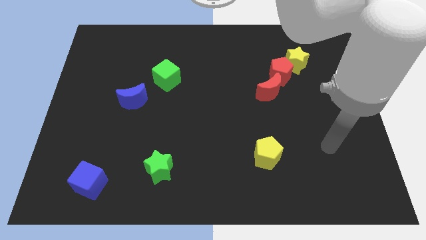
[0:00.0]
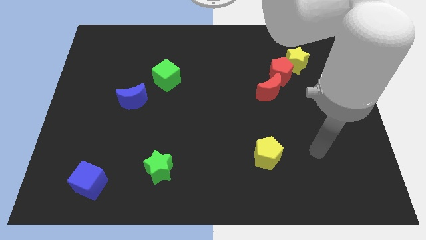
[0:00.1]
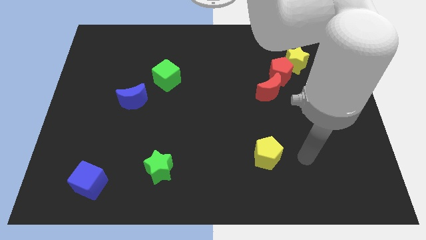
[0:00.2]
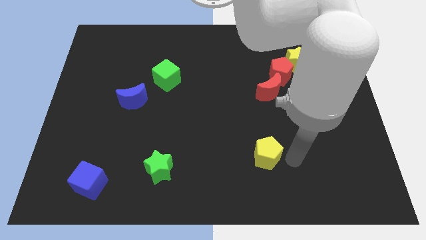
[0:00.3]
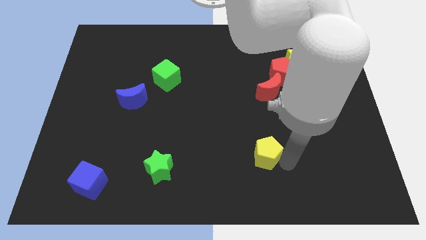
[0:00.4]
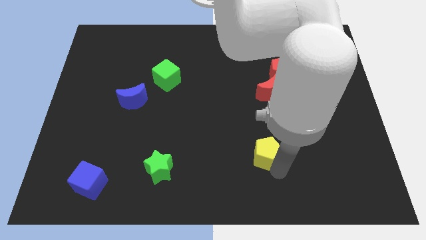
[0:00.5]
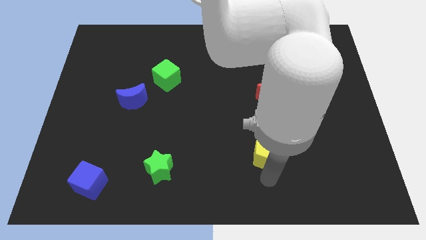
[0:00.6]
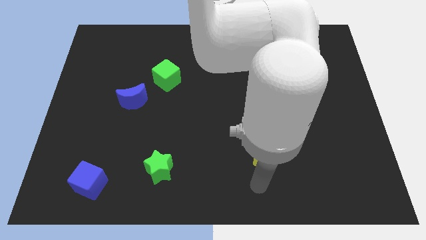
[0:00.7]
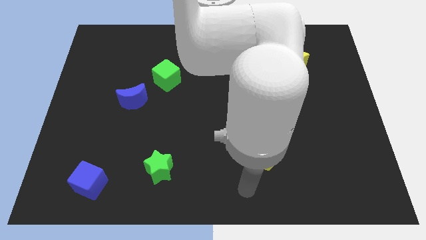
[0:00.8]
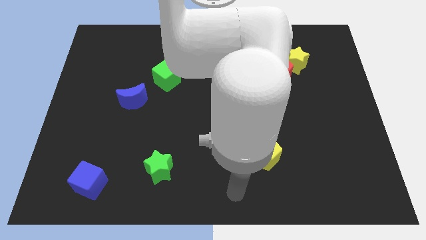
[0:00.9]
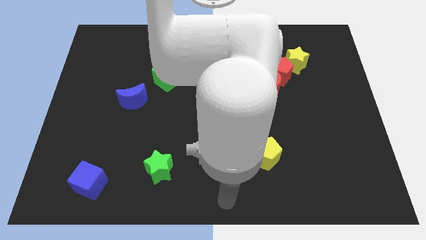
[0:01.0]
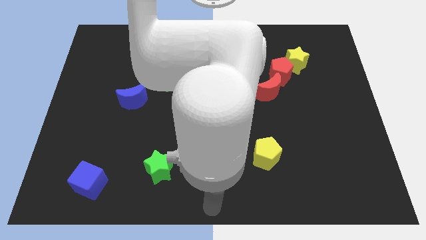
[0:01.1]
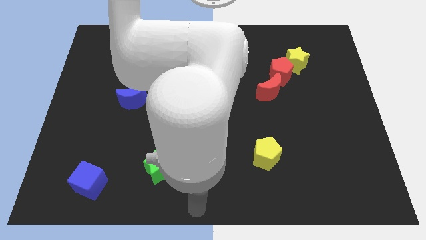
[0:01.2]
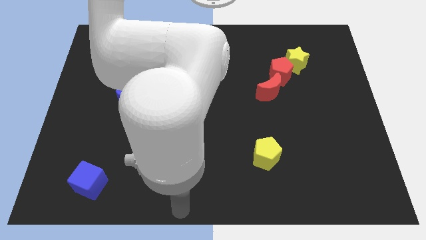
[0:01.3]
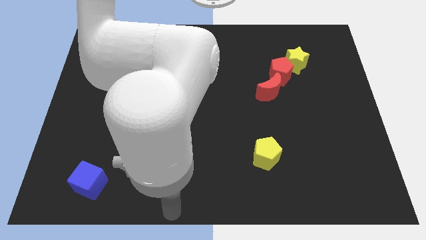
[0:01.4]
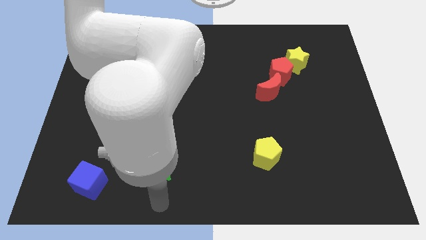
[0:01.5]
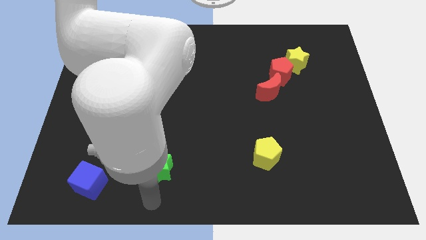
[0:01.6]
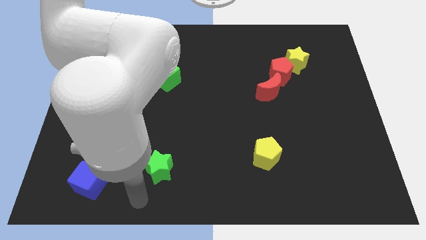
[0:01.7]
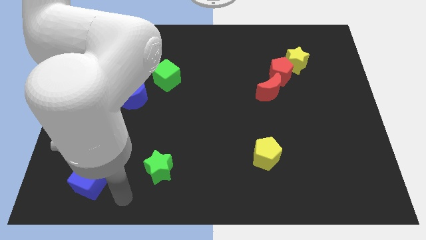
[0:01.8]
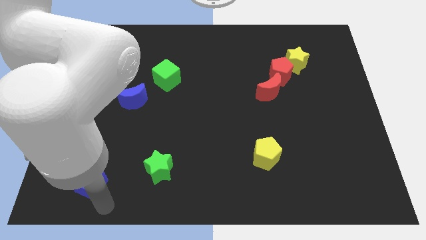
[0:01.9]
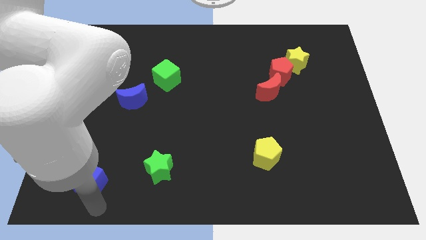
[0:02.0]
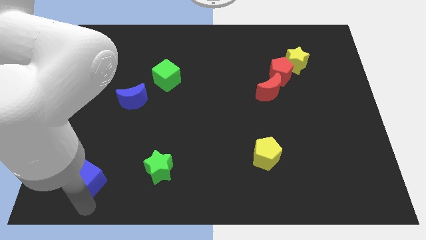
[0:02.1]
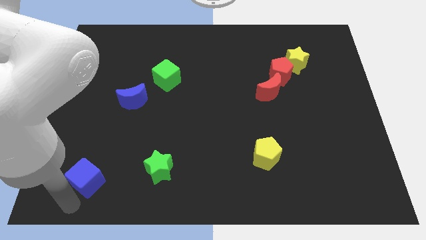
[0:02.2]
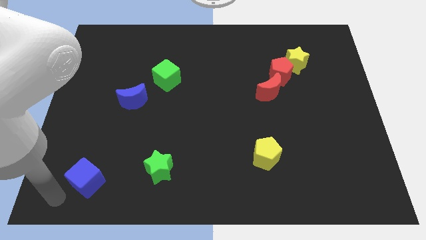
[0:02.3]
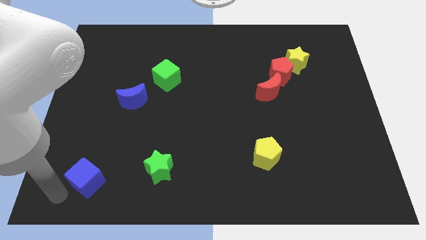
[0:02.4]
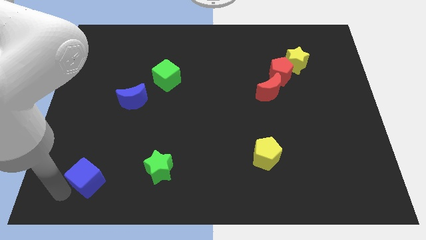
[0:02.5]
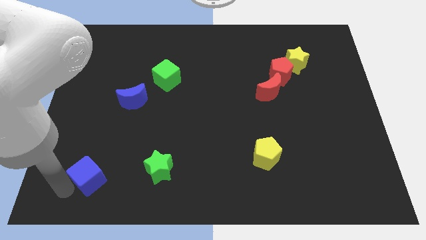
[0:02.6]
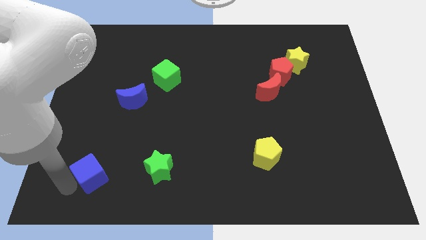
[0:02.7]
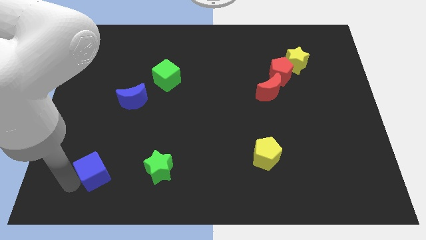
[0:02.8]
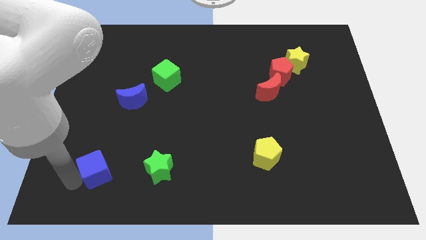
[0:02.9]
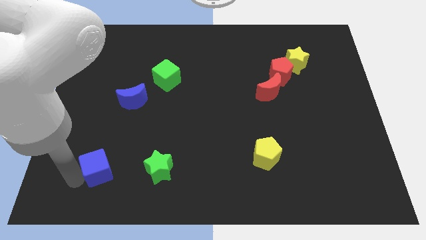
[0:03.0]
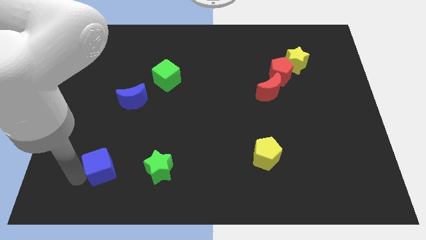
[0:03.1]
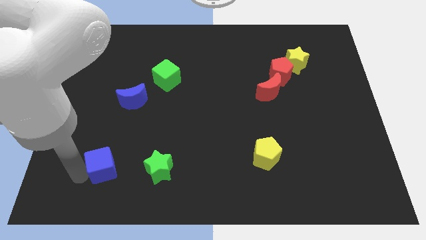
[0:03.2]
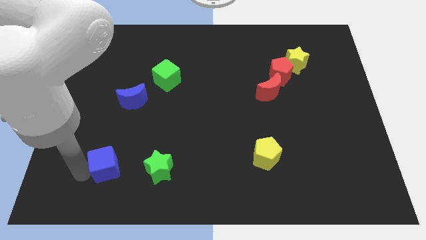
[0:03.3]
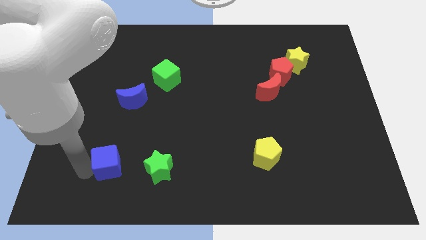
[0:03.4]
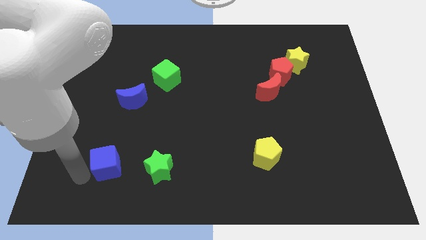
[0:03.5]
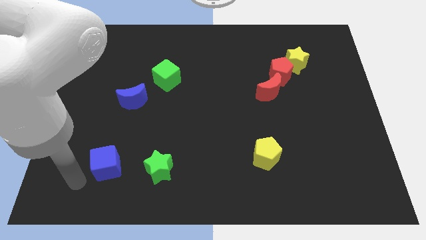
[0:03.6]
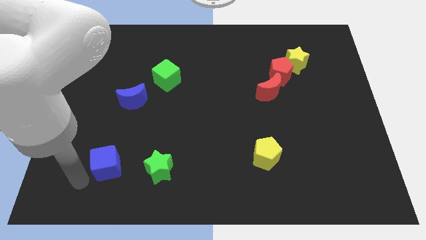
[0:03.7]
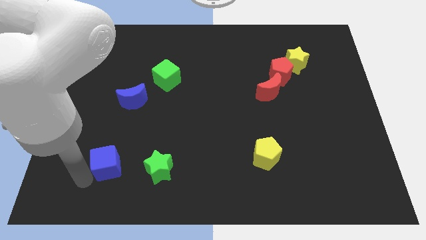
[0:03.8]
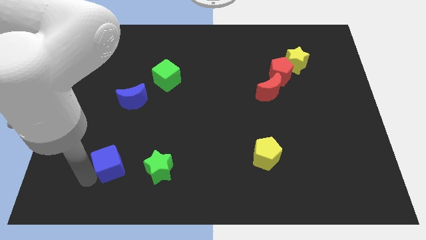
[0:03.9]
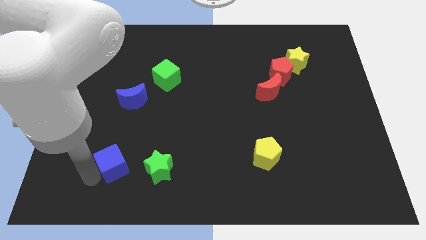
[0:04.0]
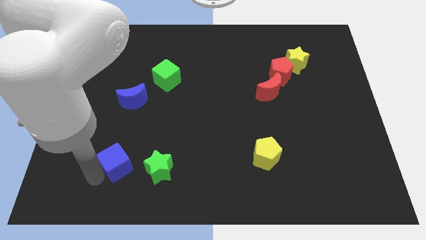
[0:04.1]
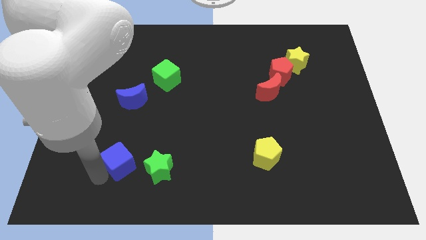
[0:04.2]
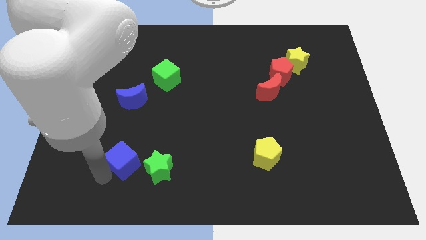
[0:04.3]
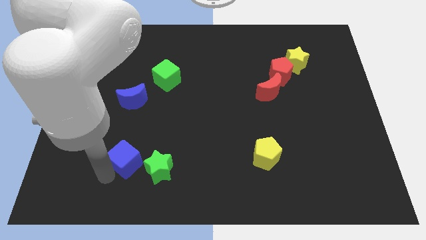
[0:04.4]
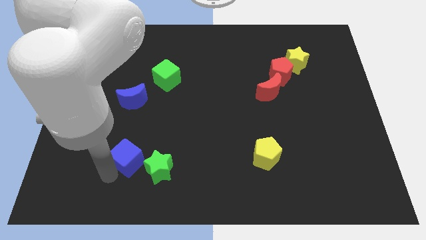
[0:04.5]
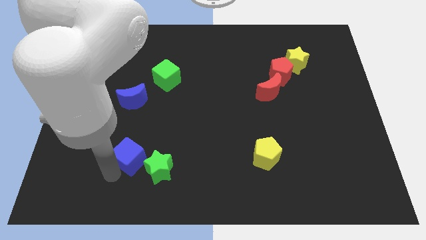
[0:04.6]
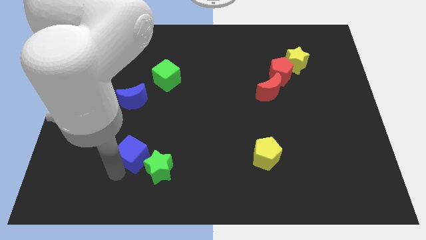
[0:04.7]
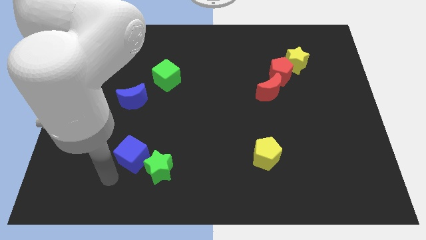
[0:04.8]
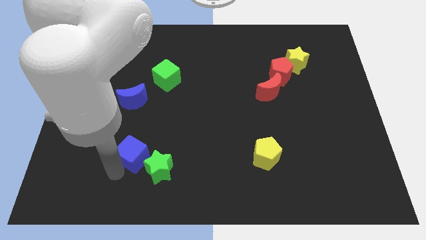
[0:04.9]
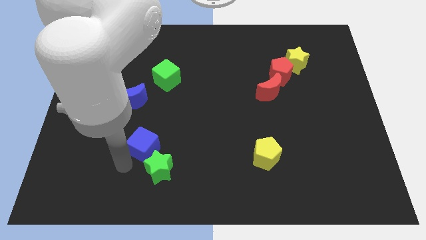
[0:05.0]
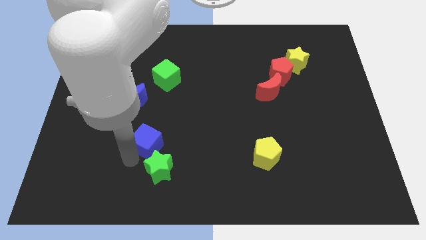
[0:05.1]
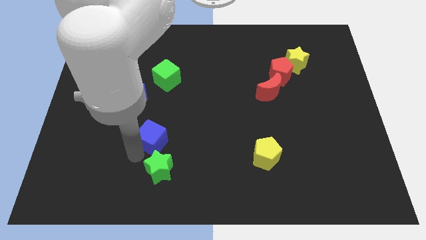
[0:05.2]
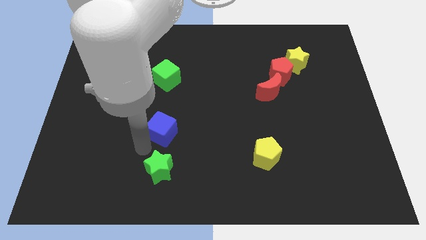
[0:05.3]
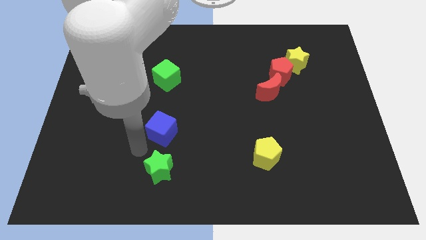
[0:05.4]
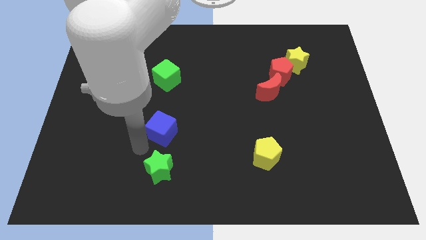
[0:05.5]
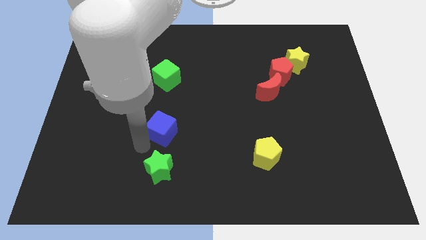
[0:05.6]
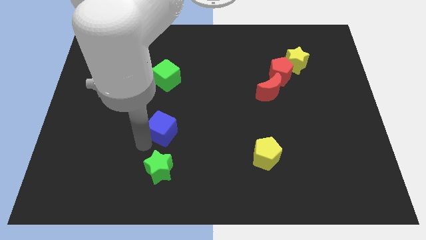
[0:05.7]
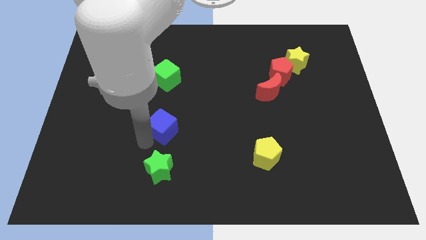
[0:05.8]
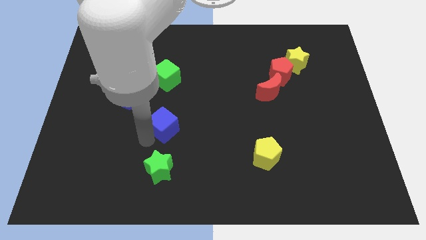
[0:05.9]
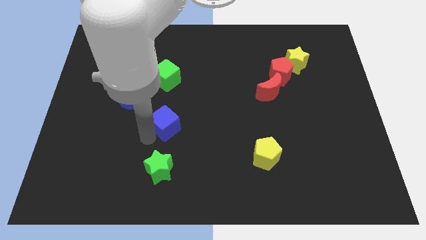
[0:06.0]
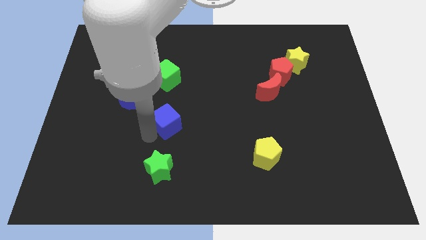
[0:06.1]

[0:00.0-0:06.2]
slide the blue cube to the center of the board

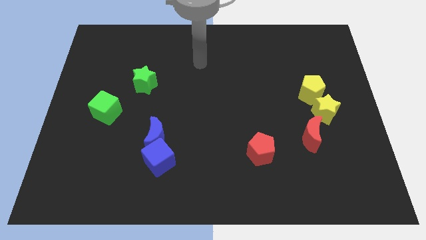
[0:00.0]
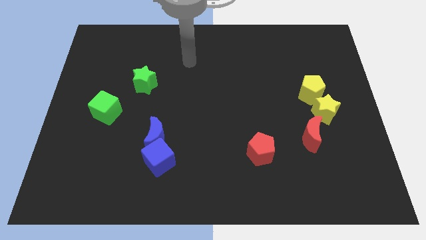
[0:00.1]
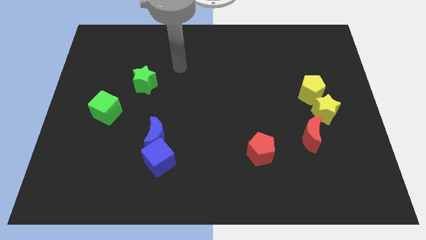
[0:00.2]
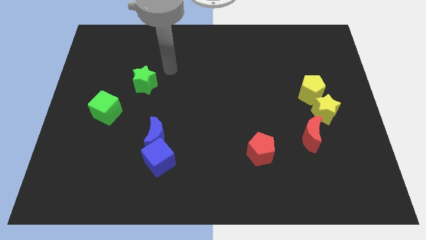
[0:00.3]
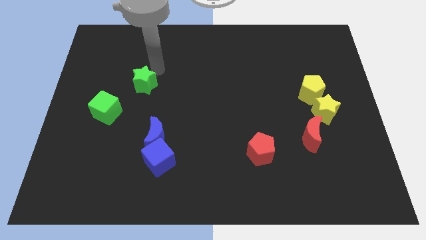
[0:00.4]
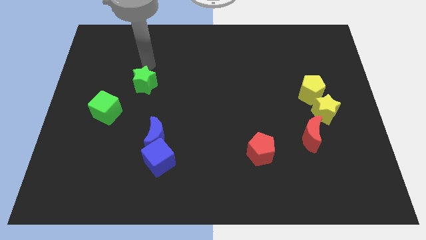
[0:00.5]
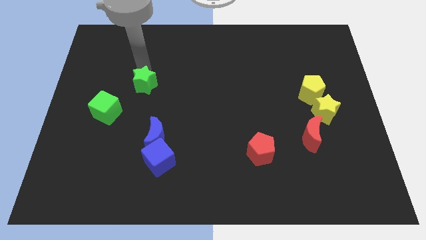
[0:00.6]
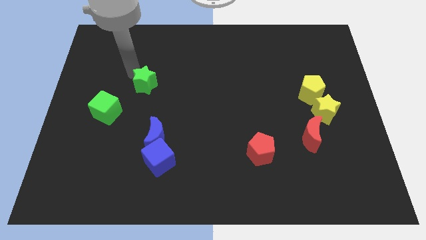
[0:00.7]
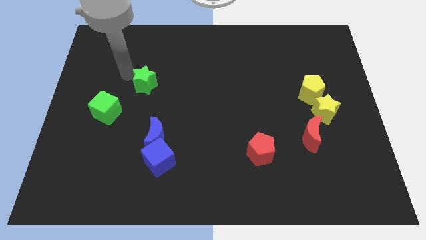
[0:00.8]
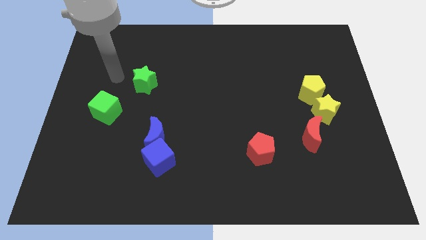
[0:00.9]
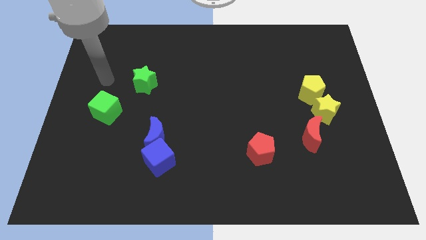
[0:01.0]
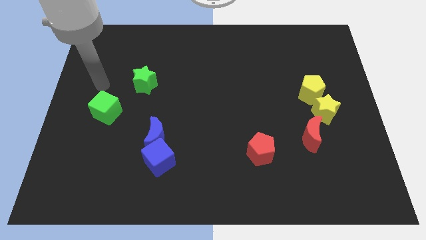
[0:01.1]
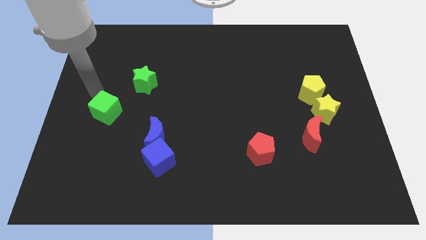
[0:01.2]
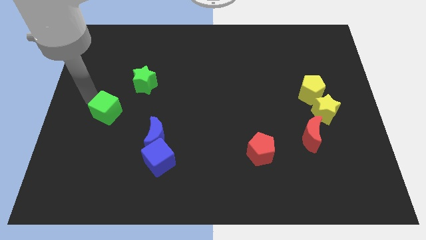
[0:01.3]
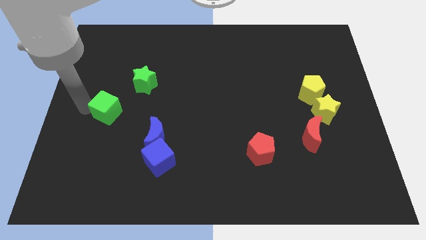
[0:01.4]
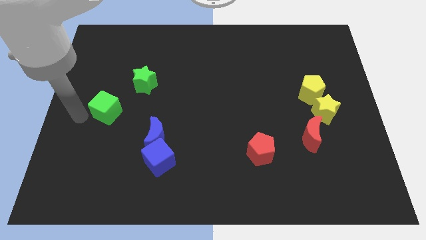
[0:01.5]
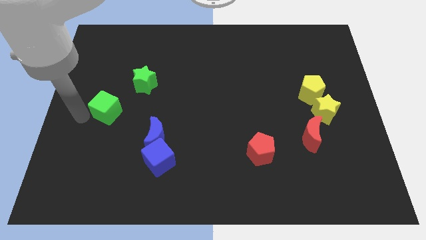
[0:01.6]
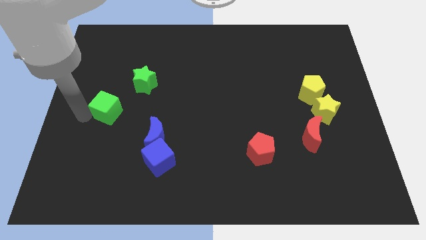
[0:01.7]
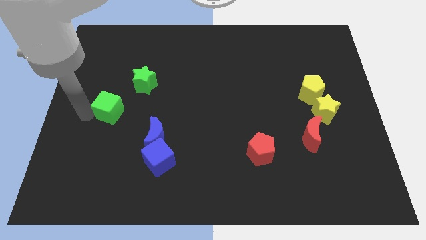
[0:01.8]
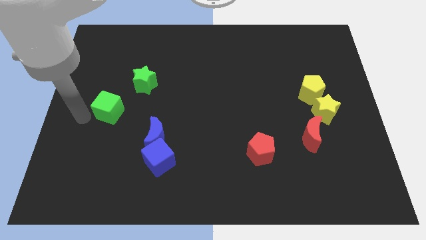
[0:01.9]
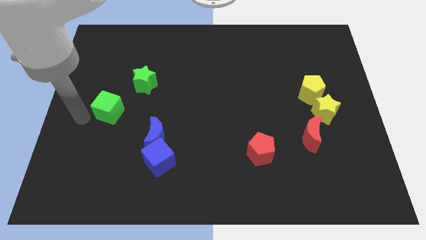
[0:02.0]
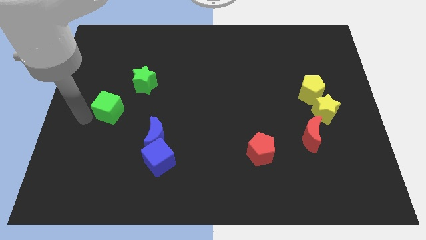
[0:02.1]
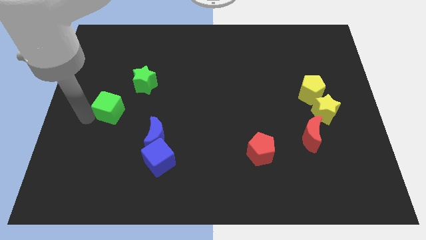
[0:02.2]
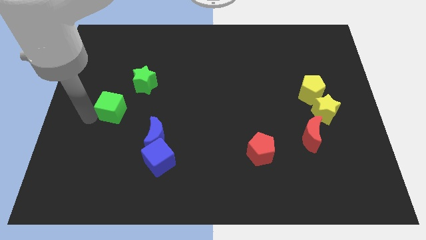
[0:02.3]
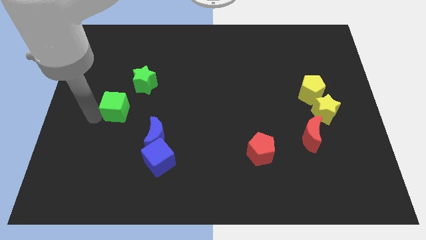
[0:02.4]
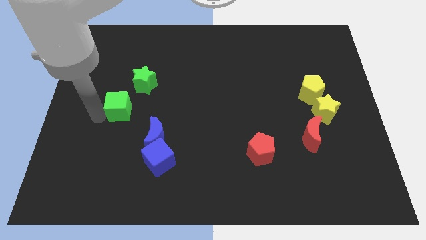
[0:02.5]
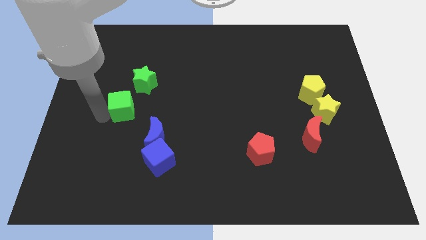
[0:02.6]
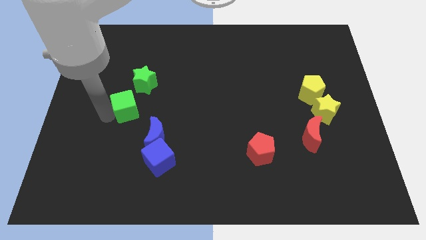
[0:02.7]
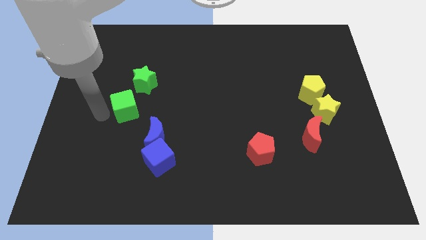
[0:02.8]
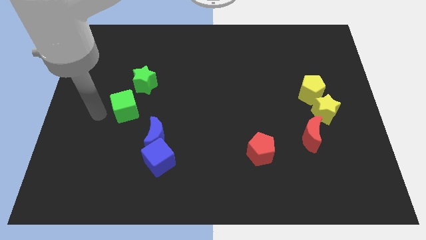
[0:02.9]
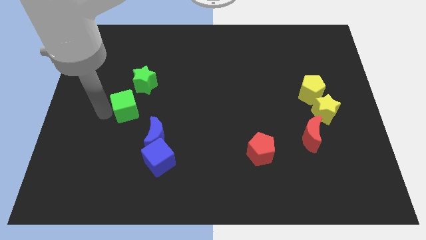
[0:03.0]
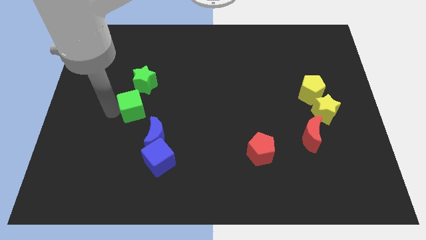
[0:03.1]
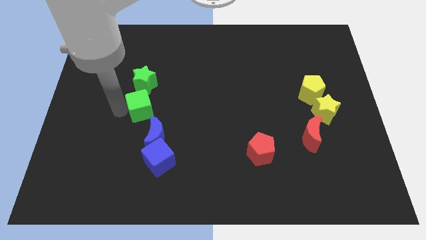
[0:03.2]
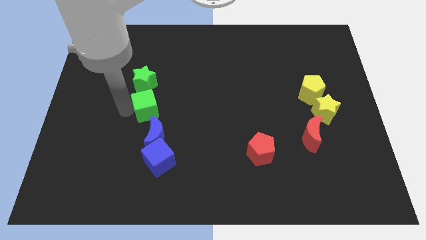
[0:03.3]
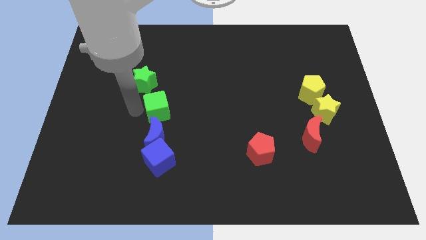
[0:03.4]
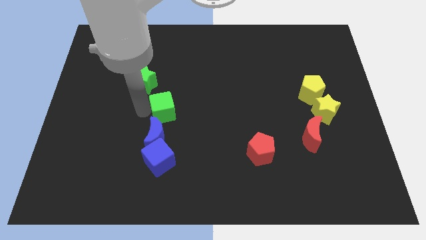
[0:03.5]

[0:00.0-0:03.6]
put the green cube to the center
